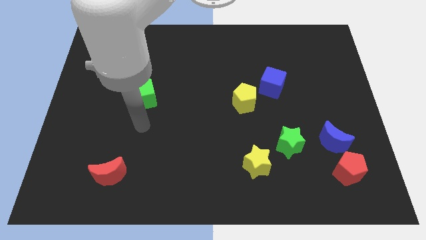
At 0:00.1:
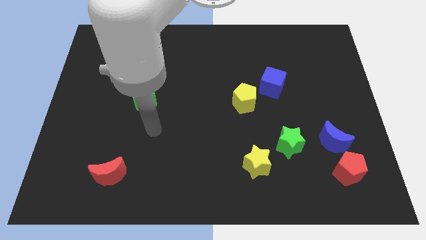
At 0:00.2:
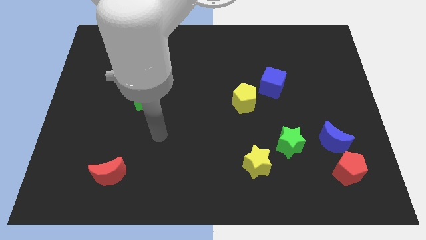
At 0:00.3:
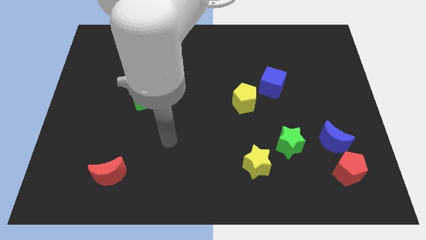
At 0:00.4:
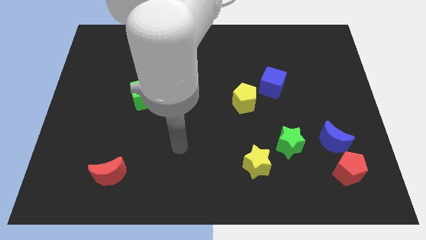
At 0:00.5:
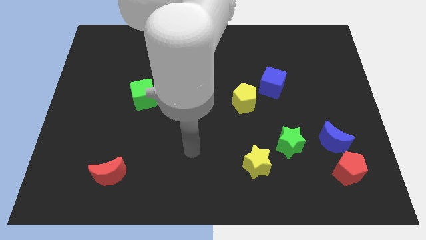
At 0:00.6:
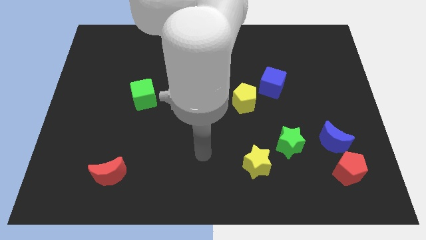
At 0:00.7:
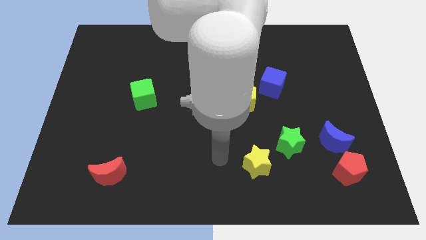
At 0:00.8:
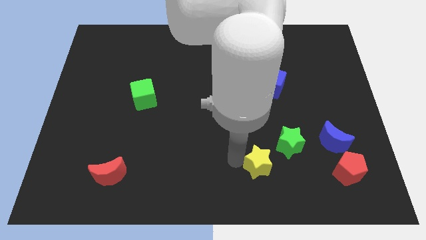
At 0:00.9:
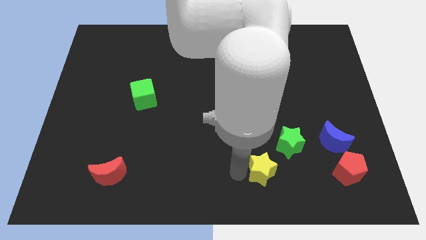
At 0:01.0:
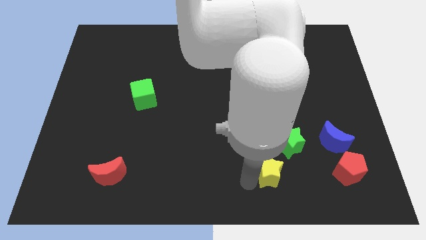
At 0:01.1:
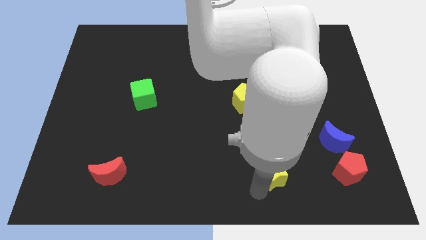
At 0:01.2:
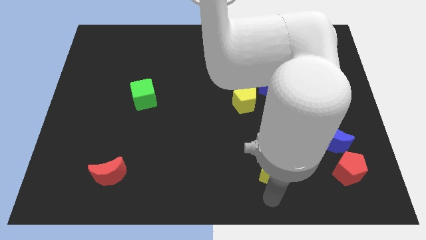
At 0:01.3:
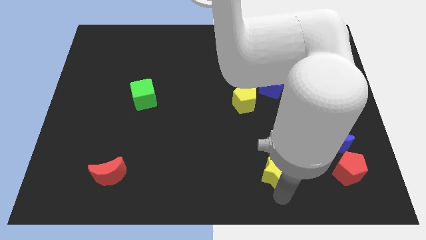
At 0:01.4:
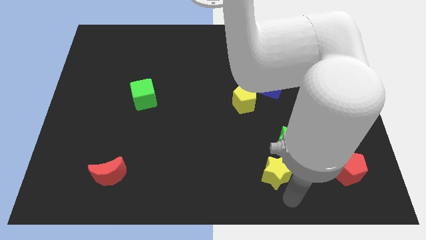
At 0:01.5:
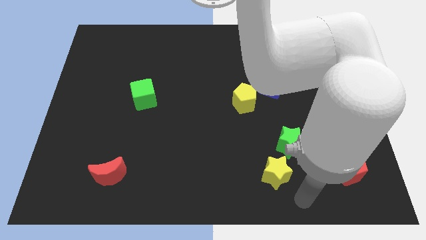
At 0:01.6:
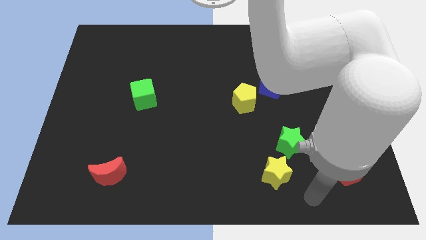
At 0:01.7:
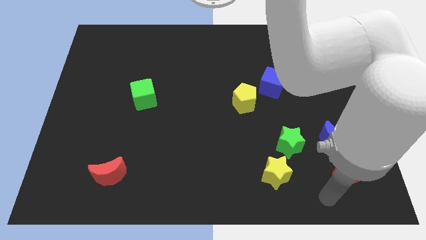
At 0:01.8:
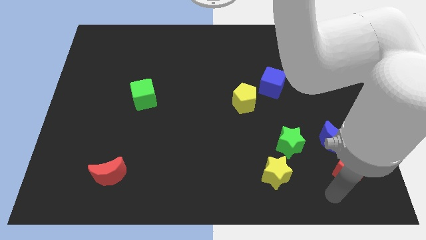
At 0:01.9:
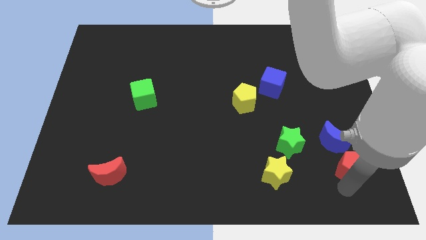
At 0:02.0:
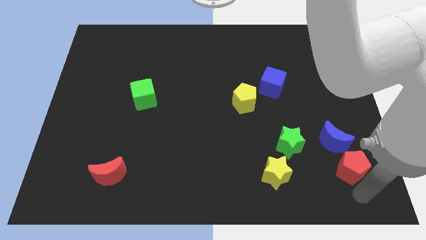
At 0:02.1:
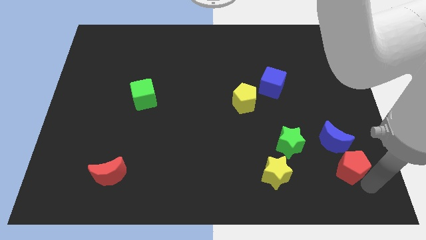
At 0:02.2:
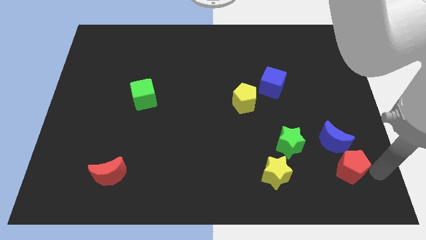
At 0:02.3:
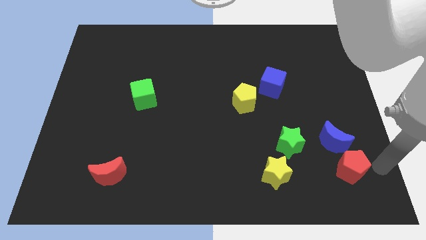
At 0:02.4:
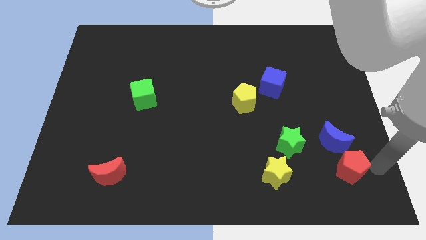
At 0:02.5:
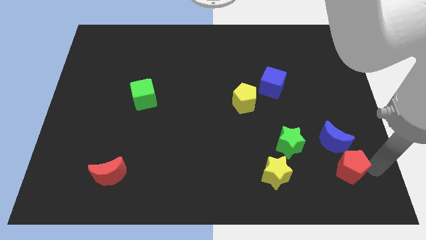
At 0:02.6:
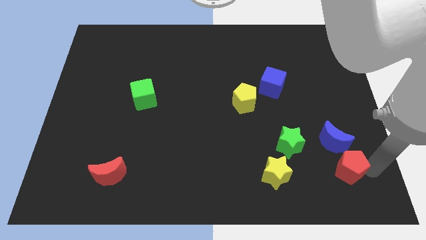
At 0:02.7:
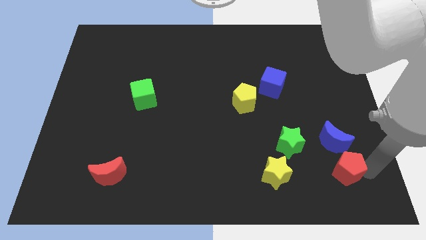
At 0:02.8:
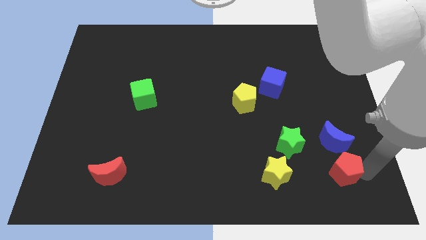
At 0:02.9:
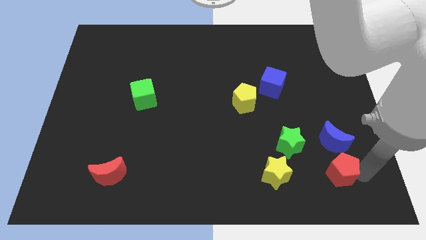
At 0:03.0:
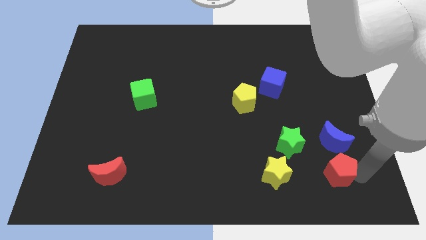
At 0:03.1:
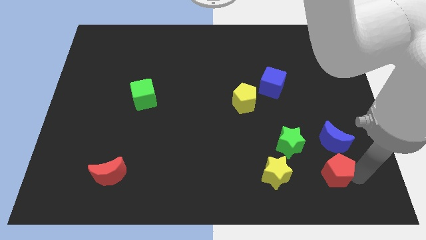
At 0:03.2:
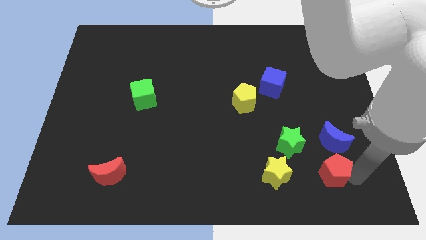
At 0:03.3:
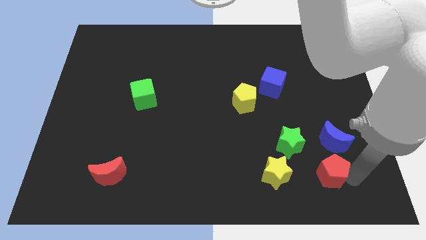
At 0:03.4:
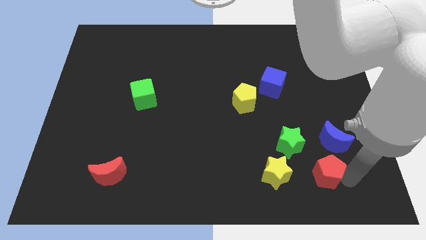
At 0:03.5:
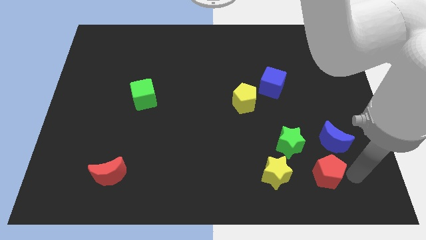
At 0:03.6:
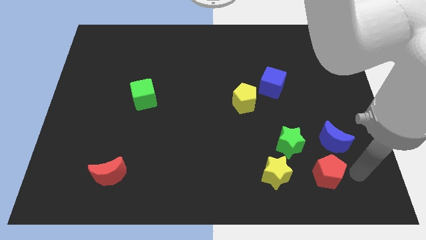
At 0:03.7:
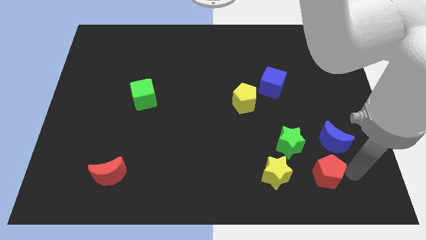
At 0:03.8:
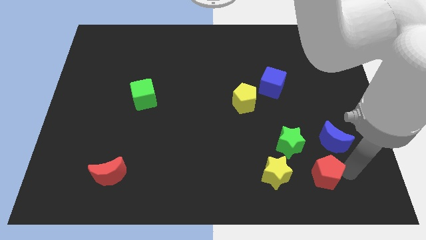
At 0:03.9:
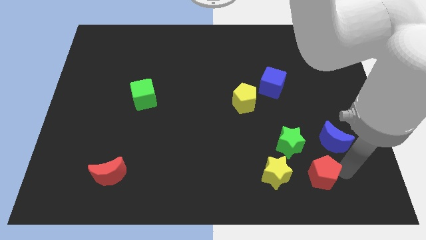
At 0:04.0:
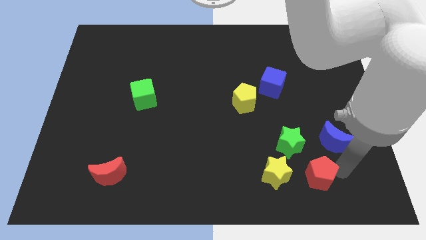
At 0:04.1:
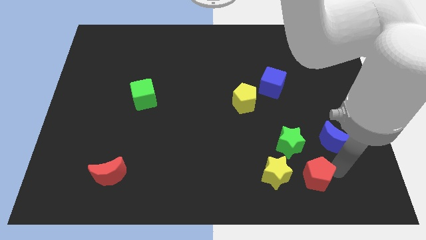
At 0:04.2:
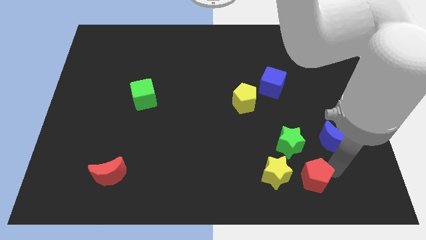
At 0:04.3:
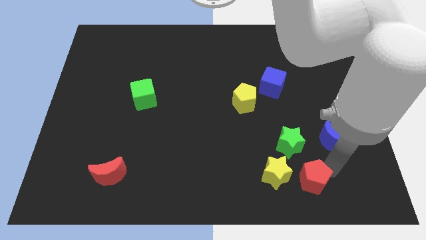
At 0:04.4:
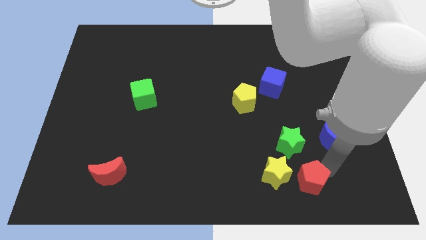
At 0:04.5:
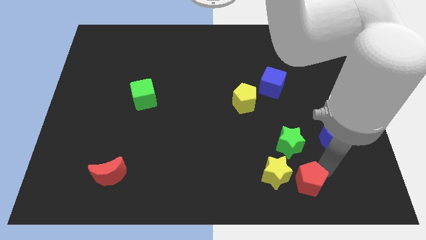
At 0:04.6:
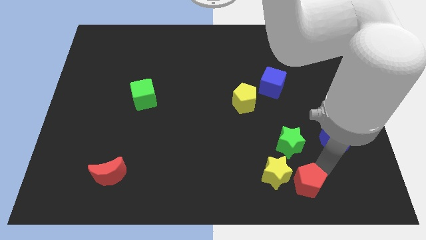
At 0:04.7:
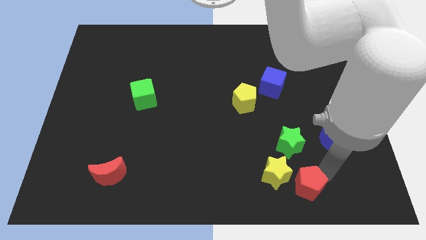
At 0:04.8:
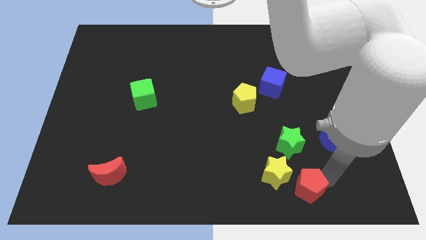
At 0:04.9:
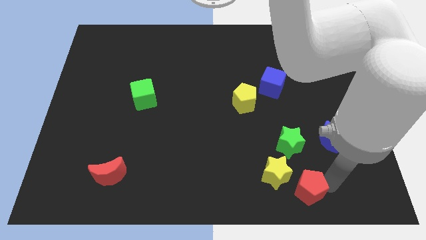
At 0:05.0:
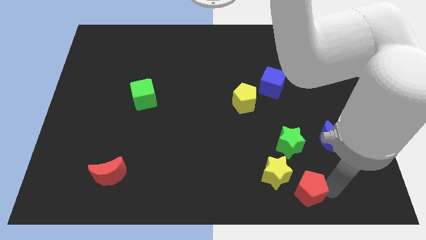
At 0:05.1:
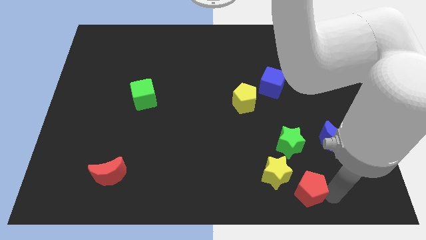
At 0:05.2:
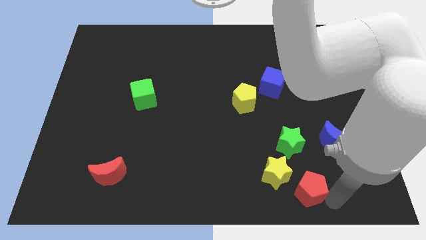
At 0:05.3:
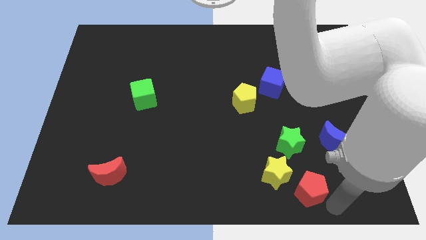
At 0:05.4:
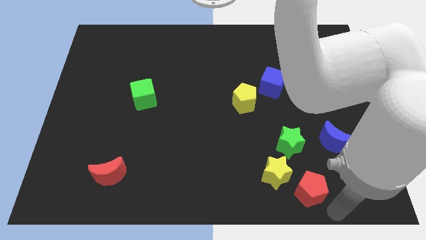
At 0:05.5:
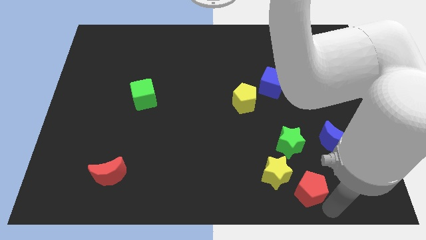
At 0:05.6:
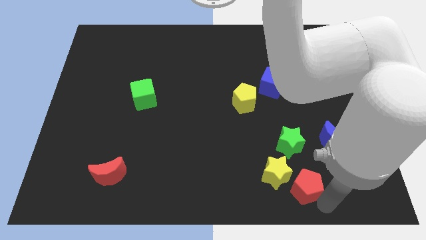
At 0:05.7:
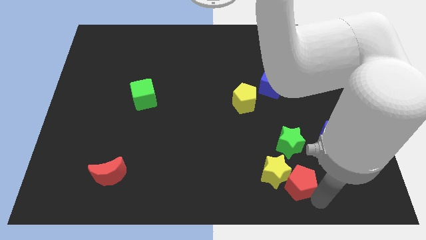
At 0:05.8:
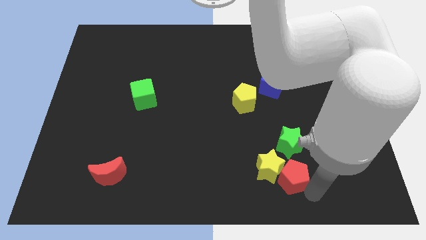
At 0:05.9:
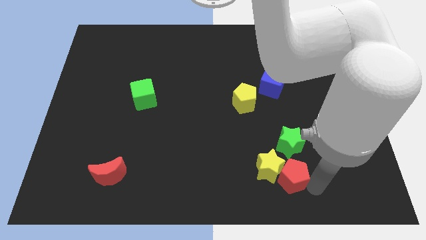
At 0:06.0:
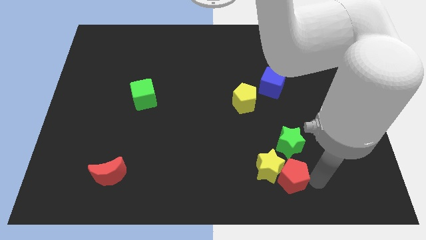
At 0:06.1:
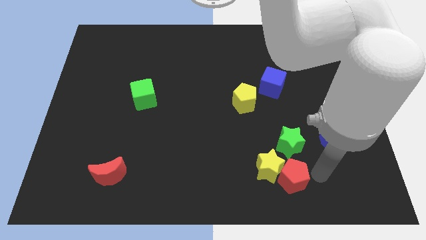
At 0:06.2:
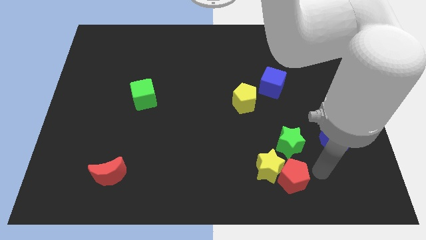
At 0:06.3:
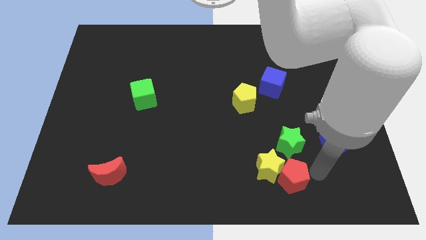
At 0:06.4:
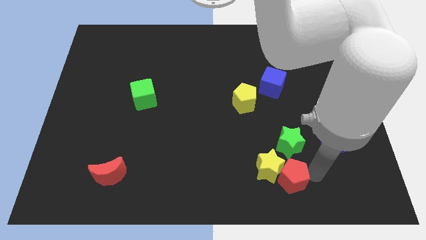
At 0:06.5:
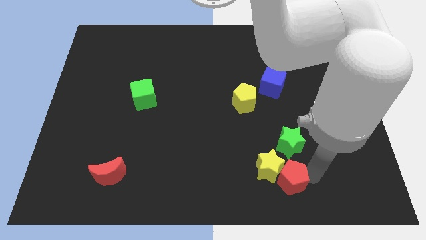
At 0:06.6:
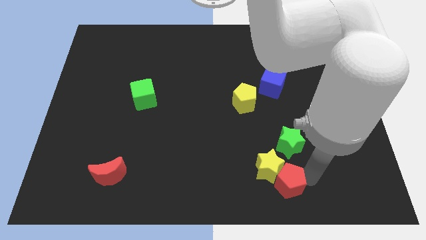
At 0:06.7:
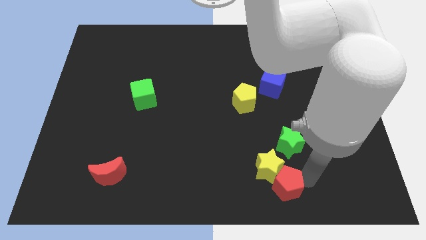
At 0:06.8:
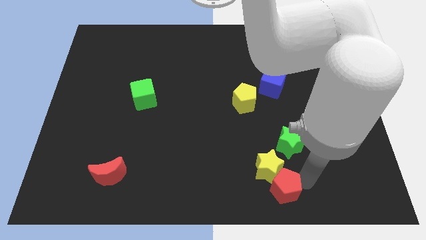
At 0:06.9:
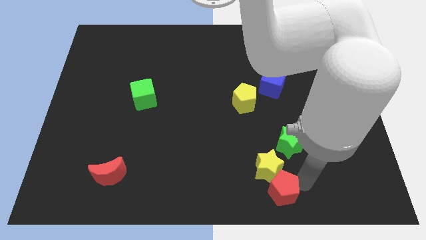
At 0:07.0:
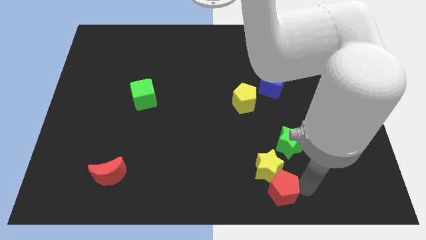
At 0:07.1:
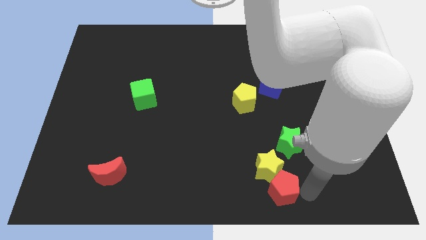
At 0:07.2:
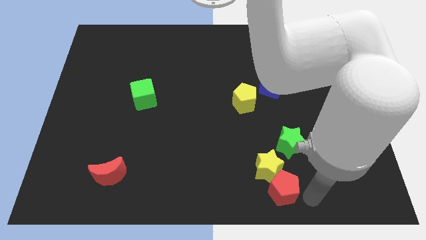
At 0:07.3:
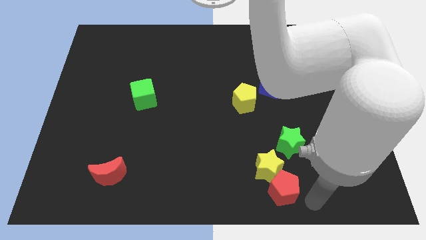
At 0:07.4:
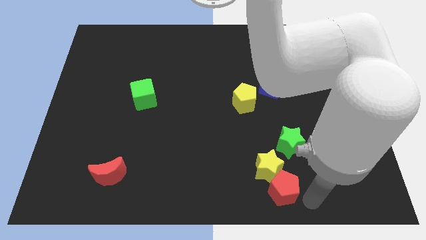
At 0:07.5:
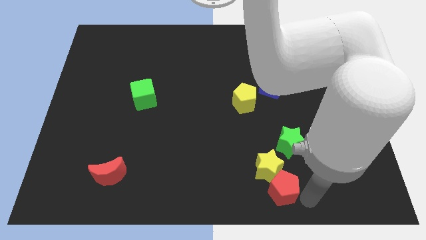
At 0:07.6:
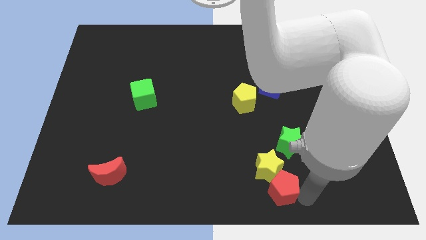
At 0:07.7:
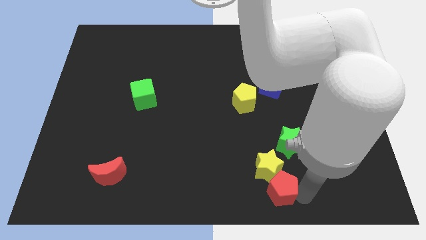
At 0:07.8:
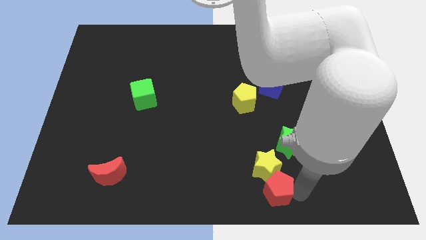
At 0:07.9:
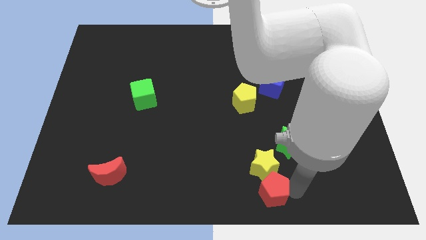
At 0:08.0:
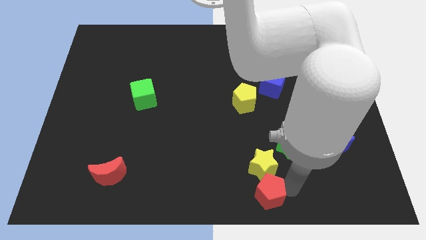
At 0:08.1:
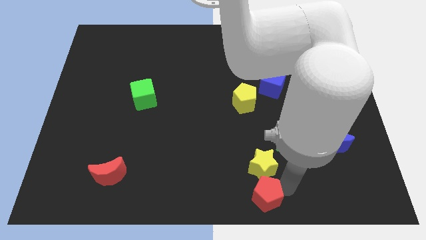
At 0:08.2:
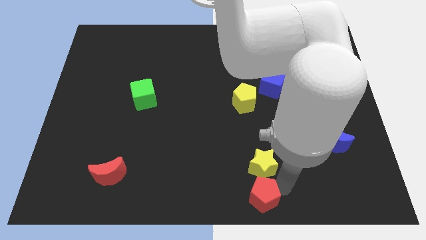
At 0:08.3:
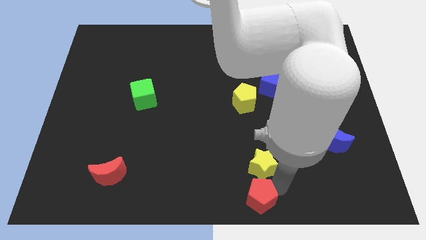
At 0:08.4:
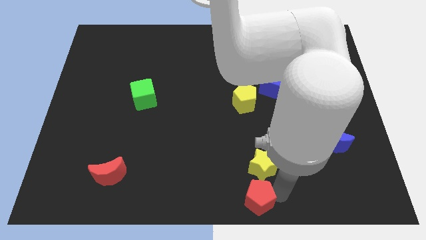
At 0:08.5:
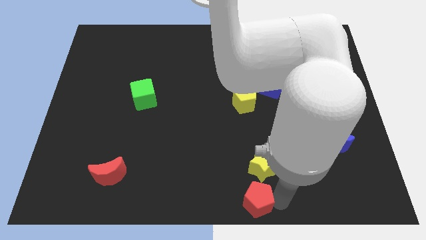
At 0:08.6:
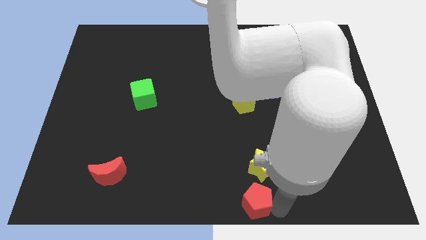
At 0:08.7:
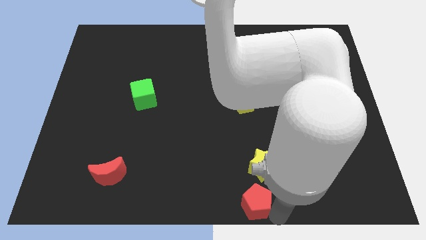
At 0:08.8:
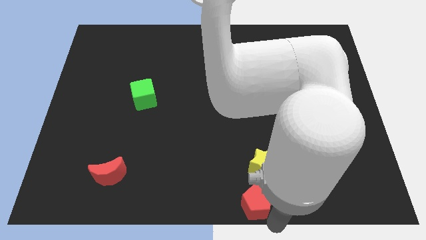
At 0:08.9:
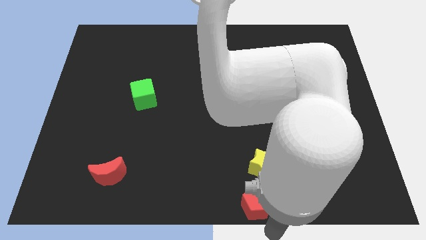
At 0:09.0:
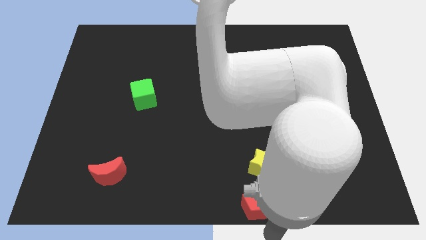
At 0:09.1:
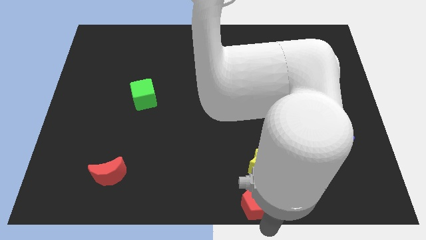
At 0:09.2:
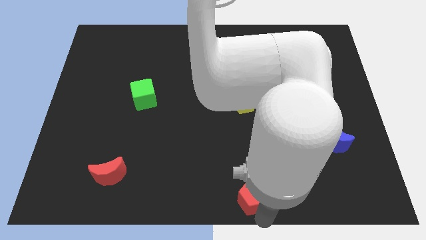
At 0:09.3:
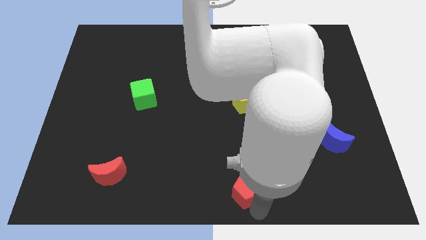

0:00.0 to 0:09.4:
move the red pentagon to the left
